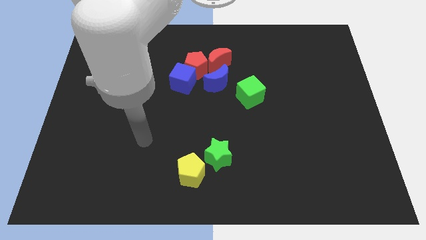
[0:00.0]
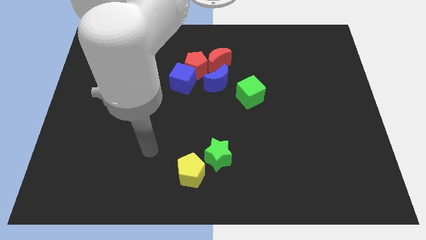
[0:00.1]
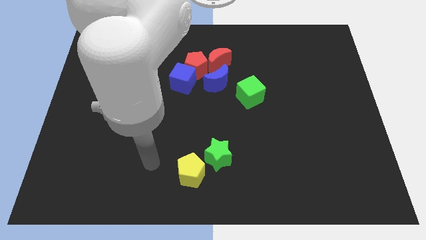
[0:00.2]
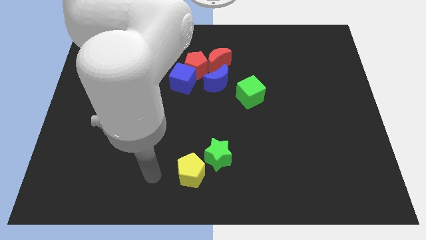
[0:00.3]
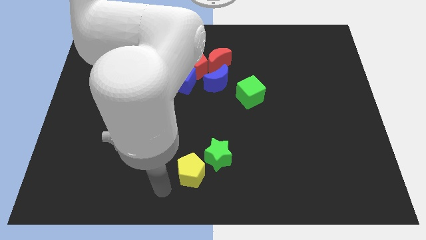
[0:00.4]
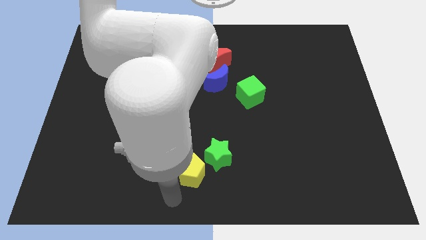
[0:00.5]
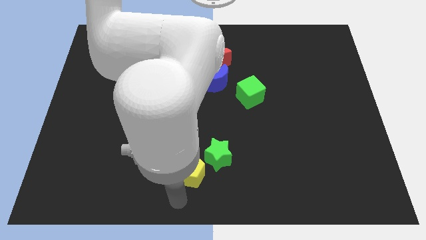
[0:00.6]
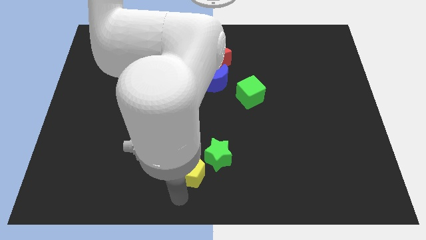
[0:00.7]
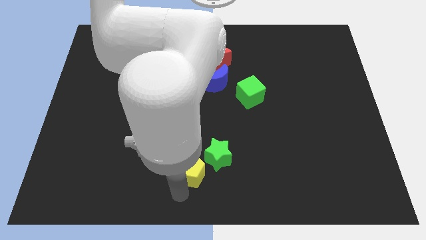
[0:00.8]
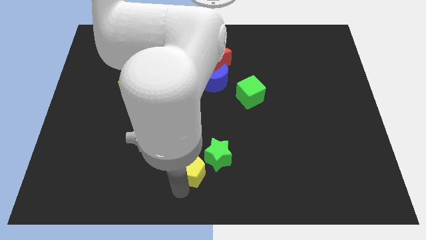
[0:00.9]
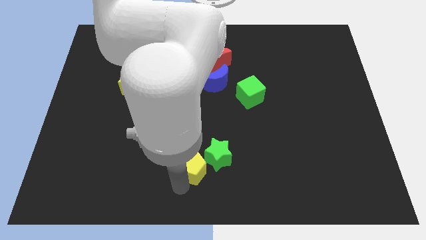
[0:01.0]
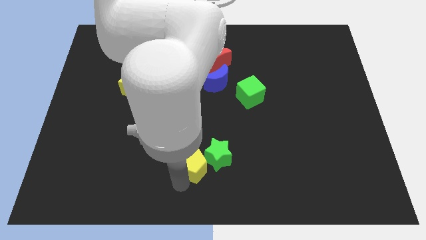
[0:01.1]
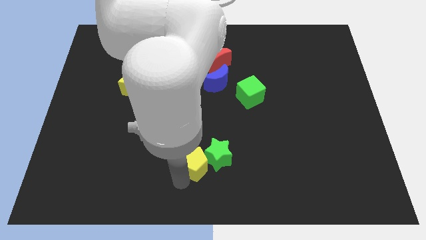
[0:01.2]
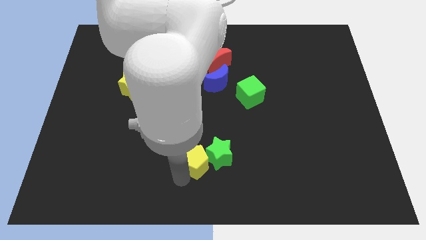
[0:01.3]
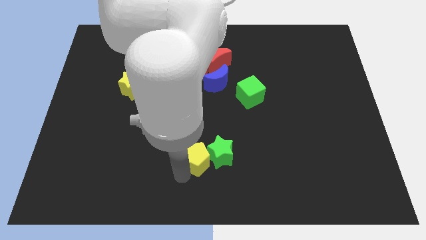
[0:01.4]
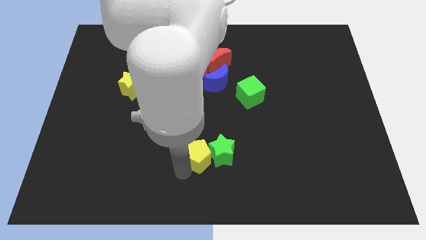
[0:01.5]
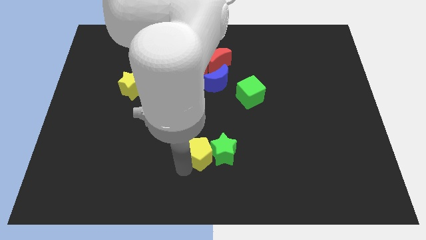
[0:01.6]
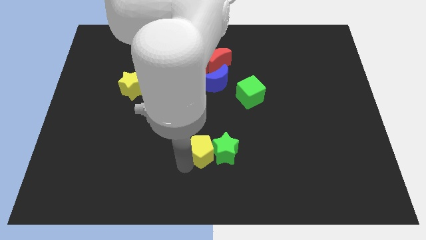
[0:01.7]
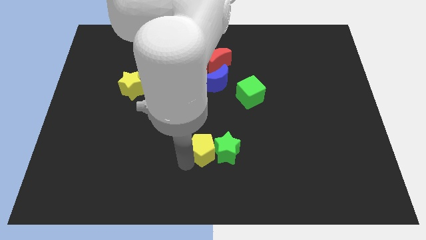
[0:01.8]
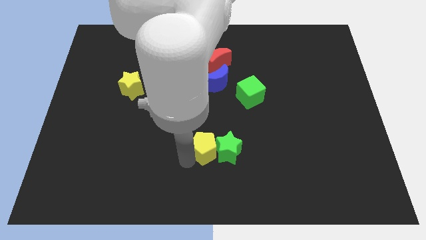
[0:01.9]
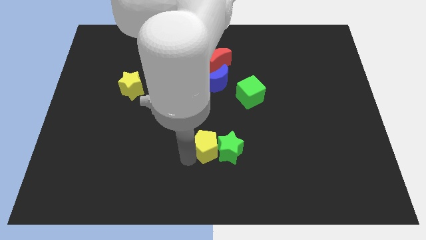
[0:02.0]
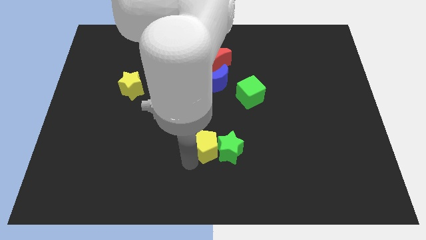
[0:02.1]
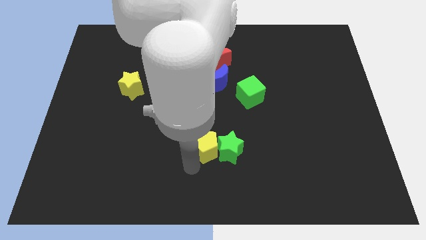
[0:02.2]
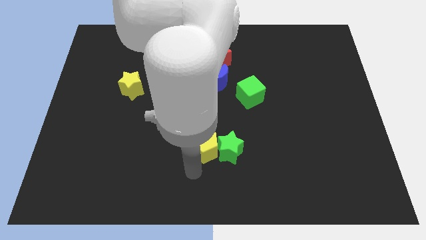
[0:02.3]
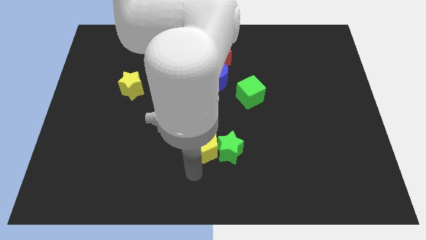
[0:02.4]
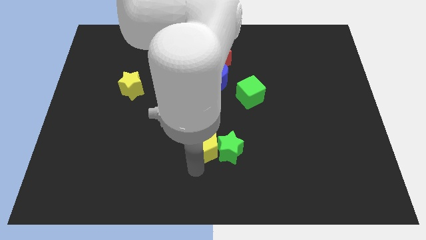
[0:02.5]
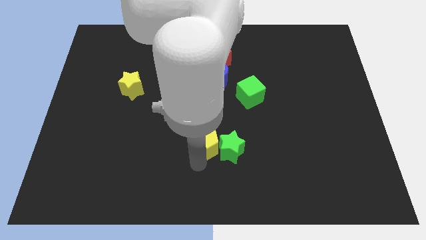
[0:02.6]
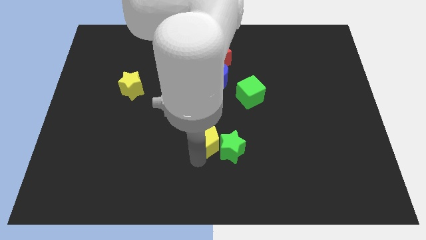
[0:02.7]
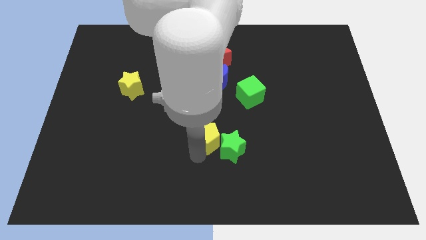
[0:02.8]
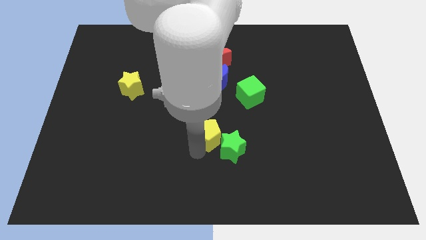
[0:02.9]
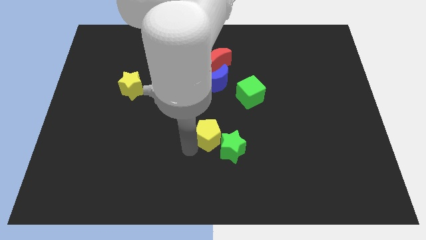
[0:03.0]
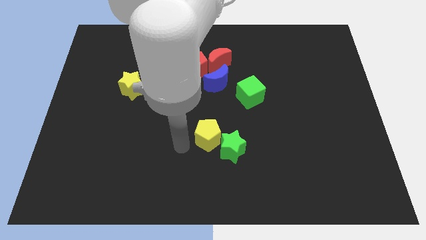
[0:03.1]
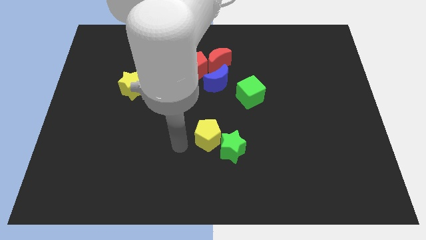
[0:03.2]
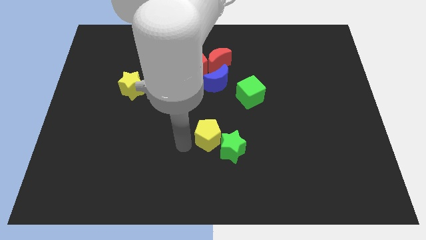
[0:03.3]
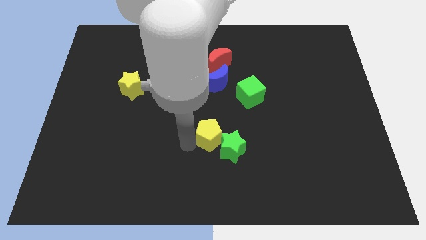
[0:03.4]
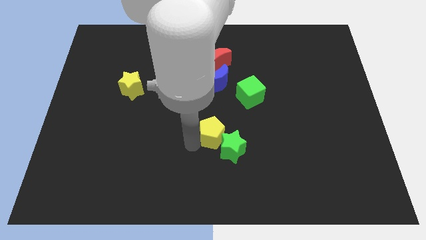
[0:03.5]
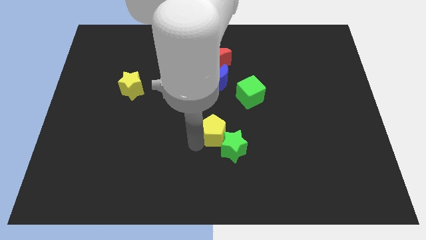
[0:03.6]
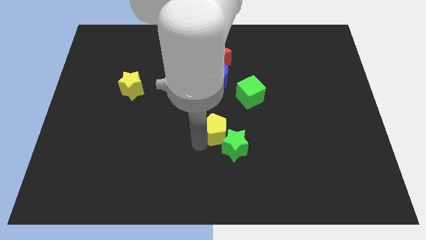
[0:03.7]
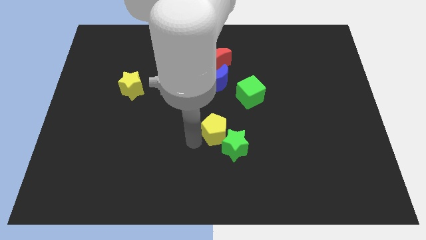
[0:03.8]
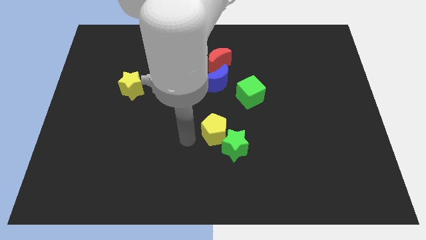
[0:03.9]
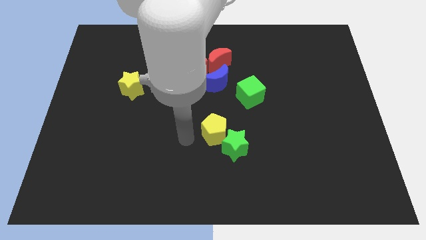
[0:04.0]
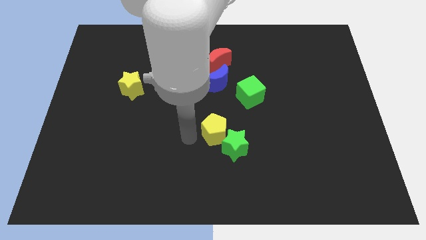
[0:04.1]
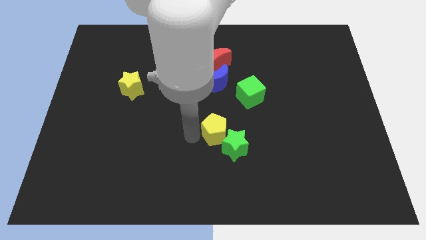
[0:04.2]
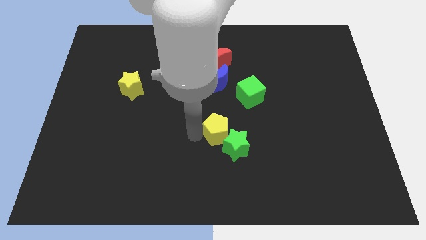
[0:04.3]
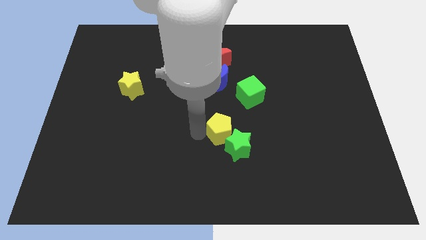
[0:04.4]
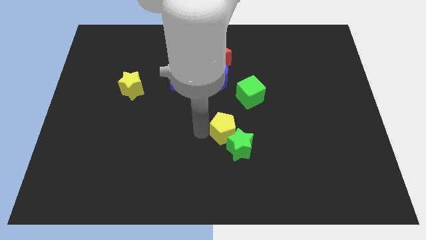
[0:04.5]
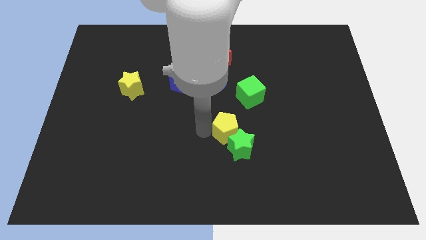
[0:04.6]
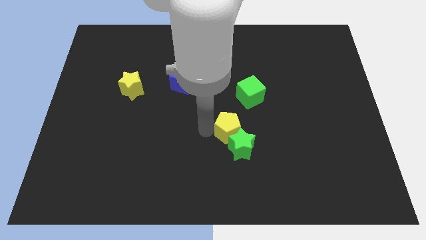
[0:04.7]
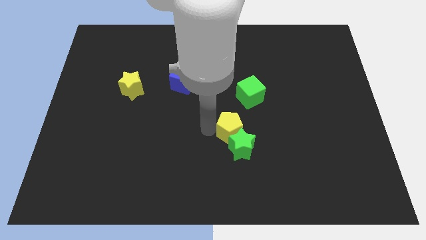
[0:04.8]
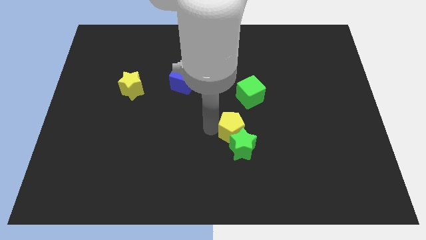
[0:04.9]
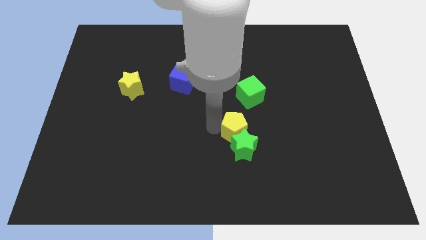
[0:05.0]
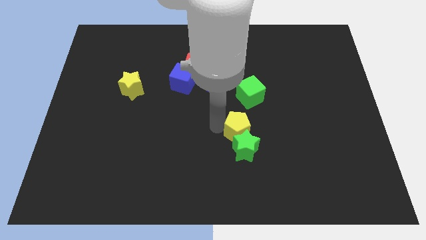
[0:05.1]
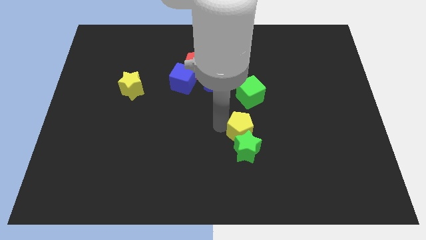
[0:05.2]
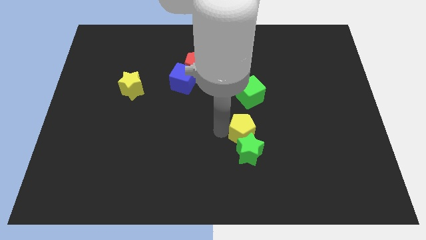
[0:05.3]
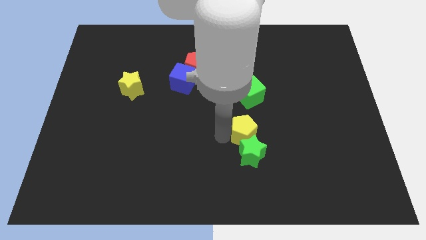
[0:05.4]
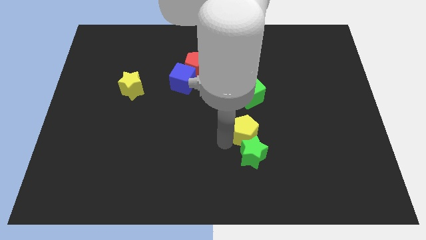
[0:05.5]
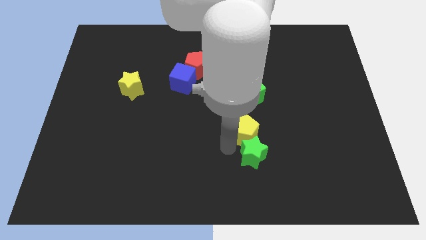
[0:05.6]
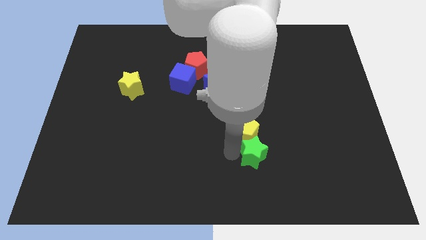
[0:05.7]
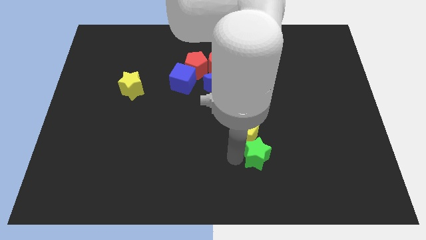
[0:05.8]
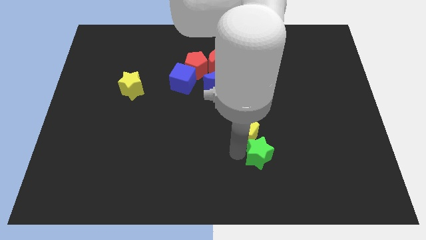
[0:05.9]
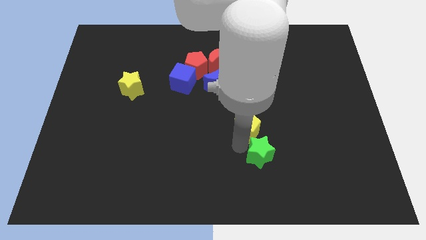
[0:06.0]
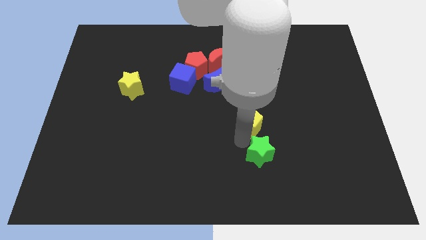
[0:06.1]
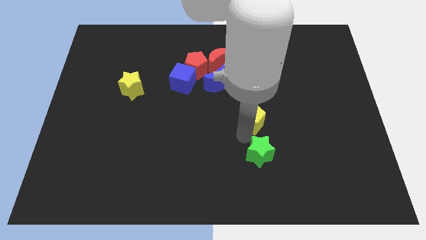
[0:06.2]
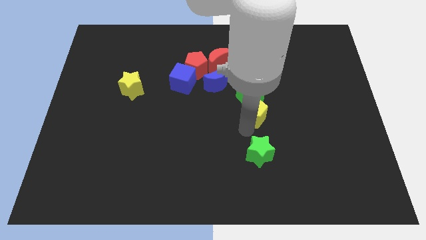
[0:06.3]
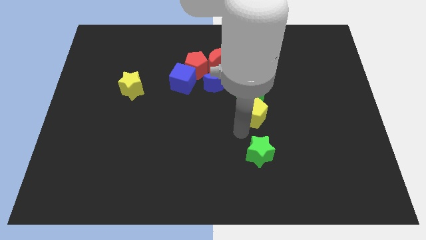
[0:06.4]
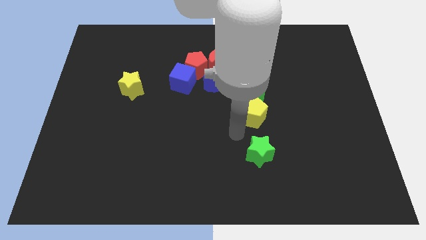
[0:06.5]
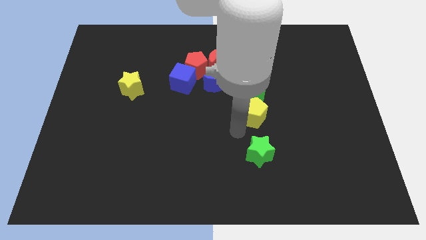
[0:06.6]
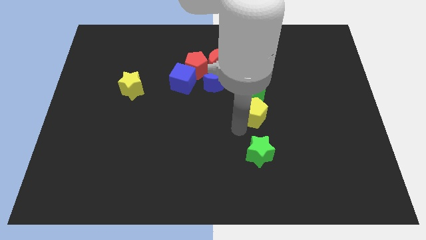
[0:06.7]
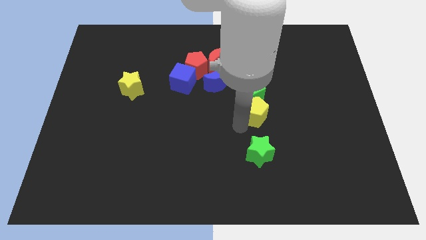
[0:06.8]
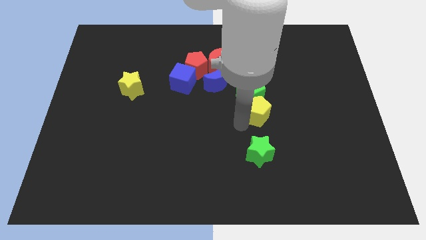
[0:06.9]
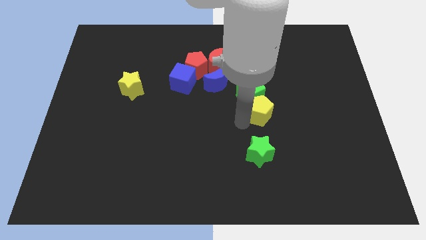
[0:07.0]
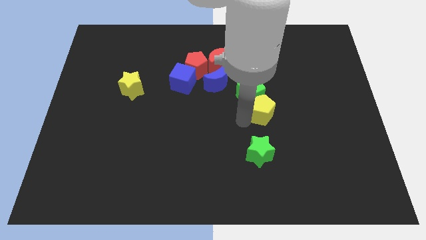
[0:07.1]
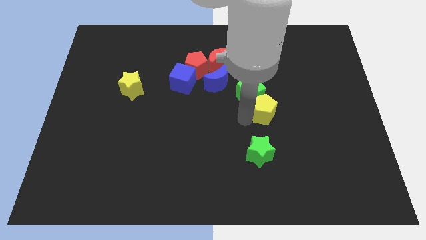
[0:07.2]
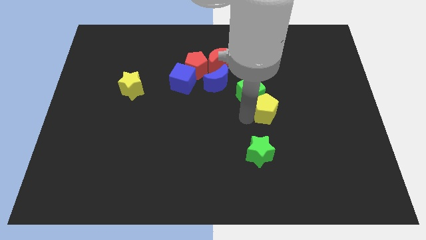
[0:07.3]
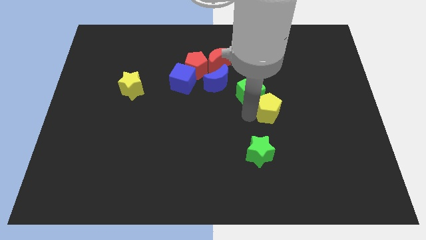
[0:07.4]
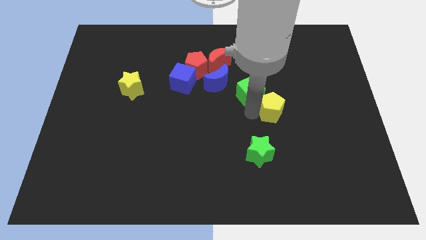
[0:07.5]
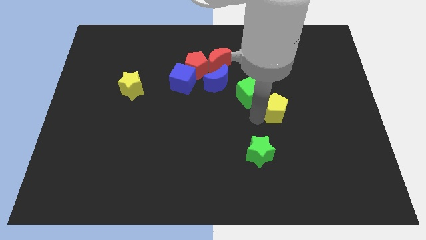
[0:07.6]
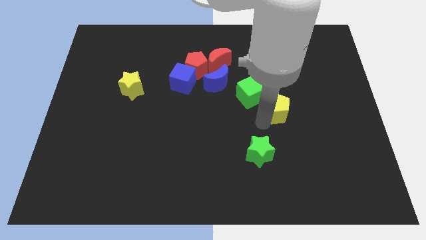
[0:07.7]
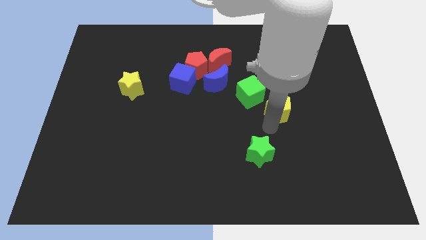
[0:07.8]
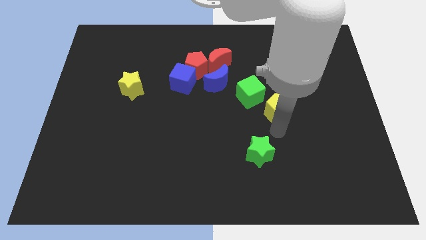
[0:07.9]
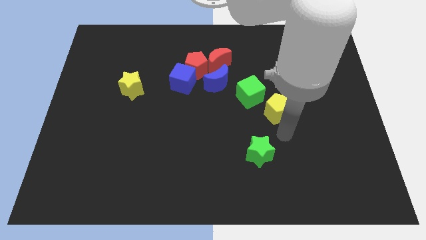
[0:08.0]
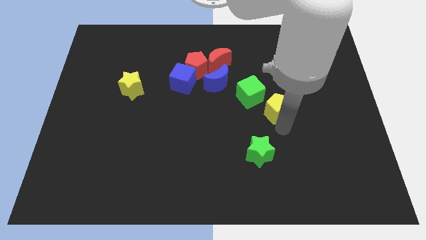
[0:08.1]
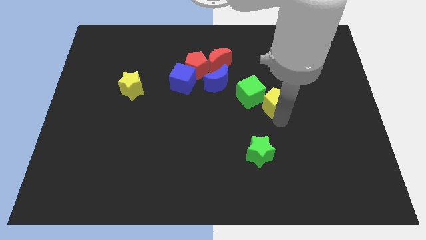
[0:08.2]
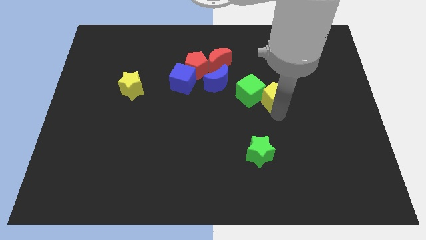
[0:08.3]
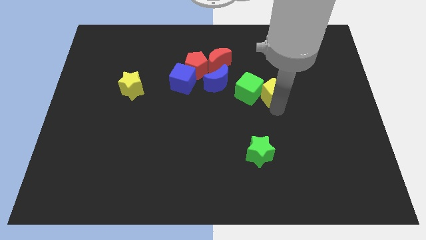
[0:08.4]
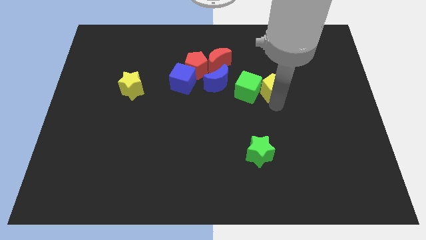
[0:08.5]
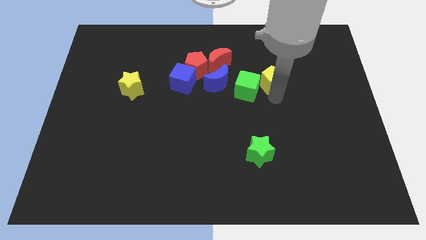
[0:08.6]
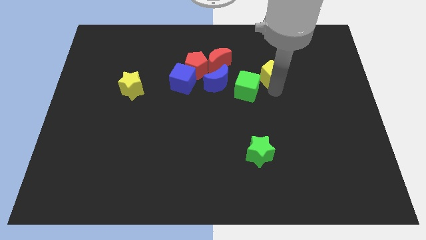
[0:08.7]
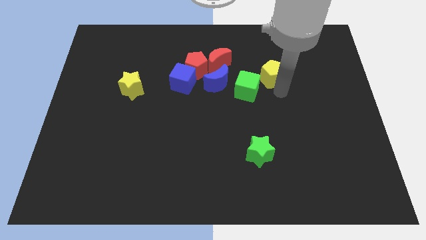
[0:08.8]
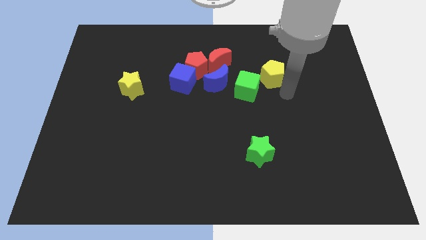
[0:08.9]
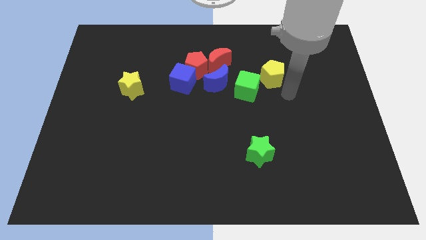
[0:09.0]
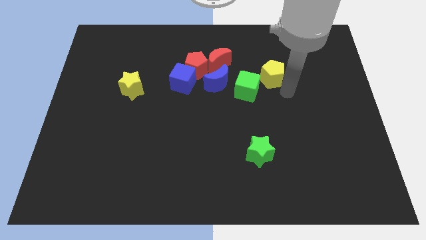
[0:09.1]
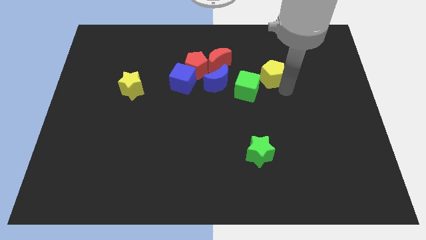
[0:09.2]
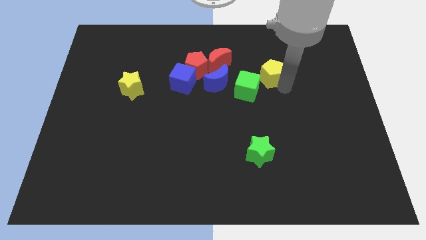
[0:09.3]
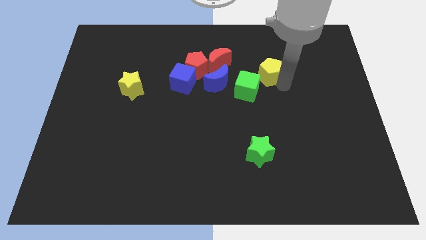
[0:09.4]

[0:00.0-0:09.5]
move the yellow pentagon to the right side of the red moon
